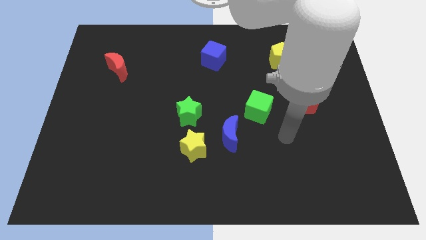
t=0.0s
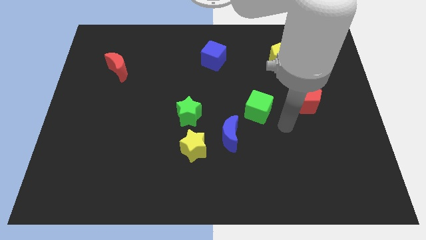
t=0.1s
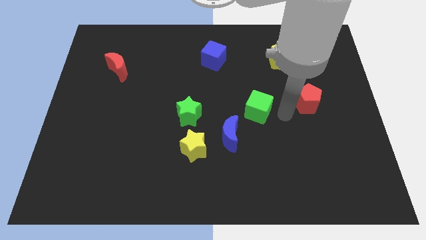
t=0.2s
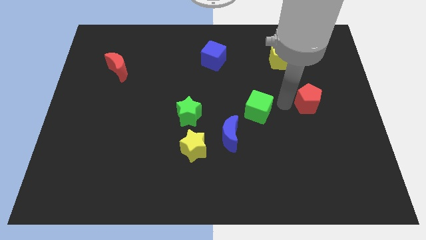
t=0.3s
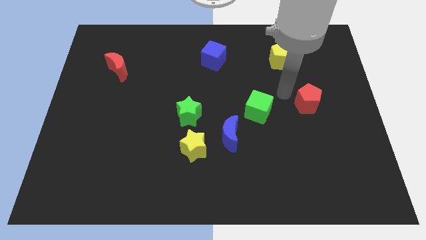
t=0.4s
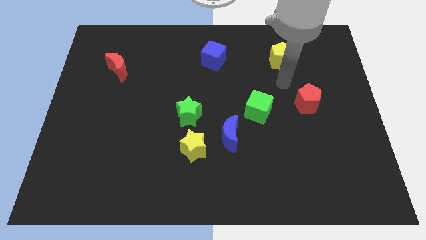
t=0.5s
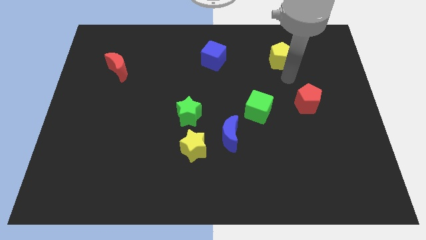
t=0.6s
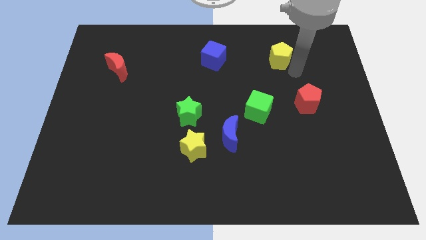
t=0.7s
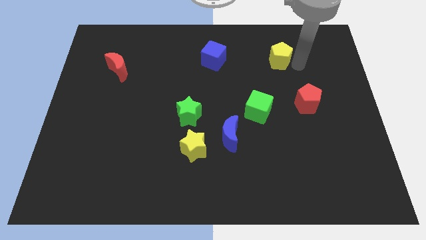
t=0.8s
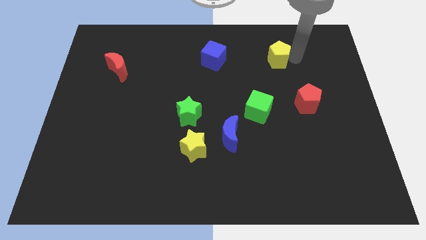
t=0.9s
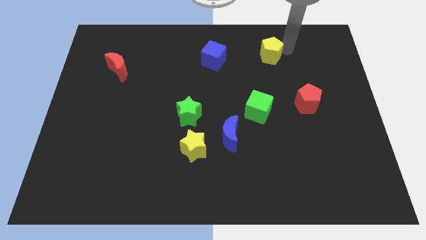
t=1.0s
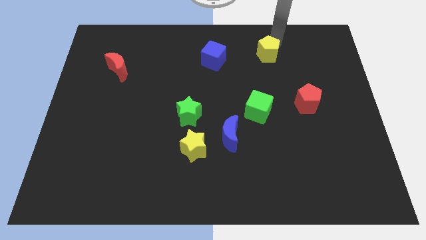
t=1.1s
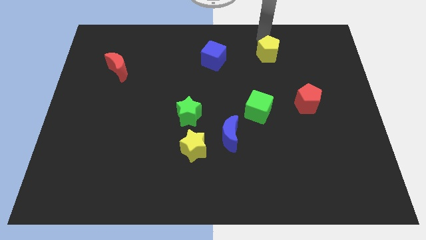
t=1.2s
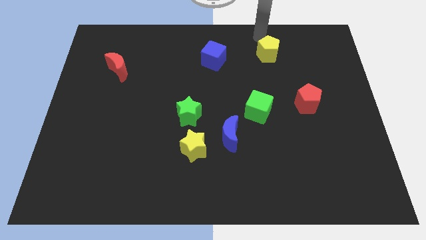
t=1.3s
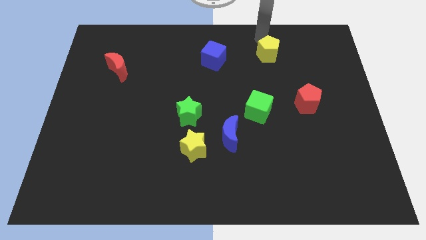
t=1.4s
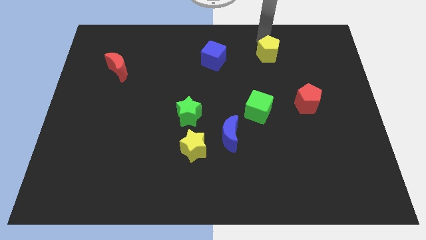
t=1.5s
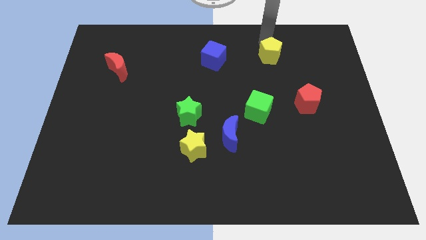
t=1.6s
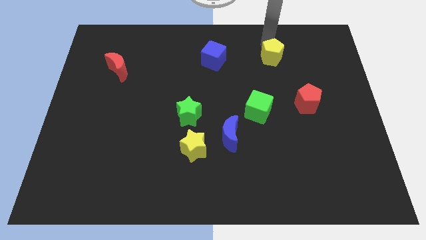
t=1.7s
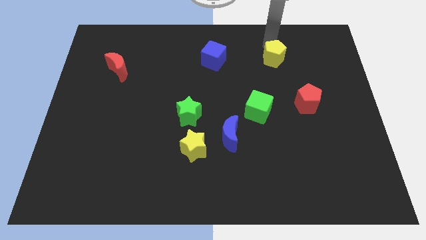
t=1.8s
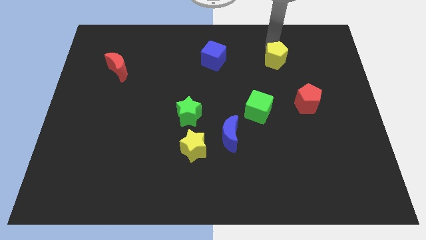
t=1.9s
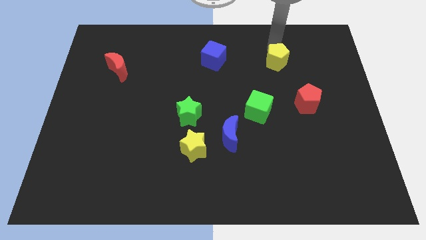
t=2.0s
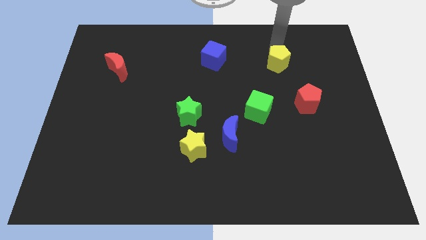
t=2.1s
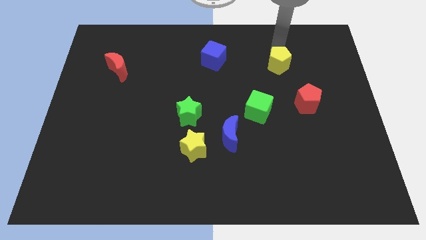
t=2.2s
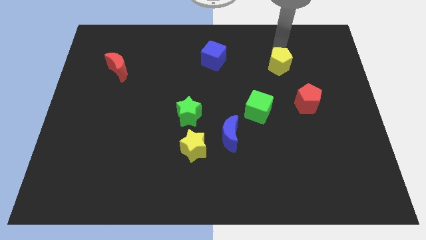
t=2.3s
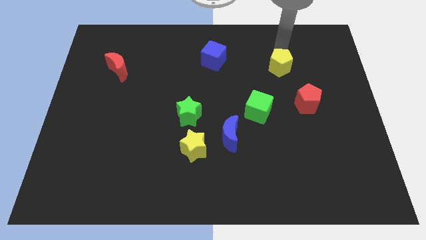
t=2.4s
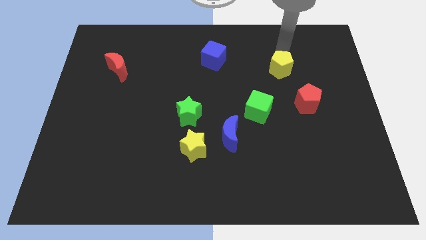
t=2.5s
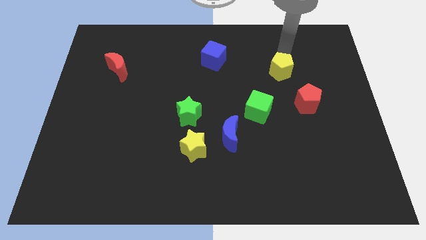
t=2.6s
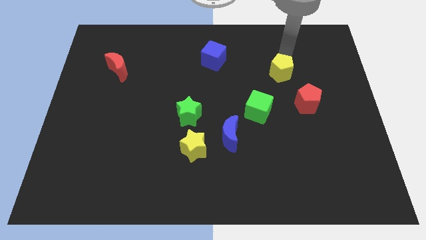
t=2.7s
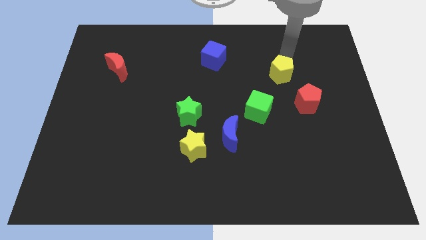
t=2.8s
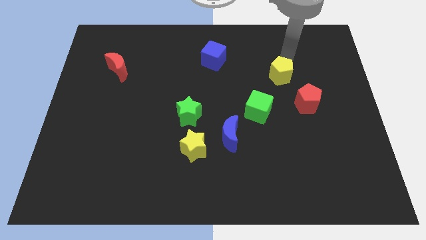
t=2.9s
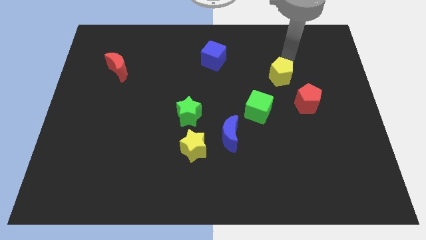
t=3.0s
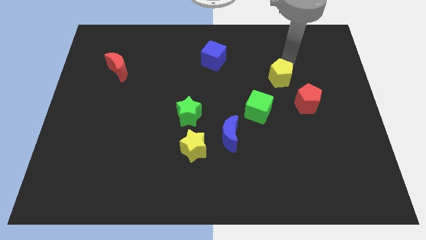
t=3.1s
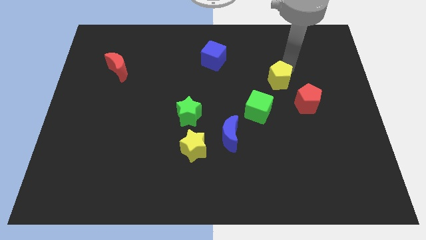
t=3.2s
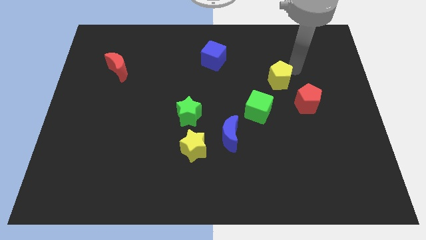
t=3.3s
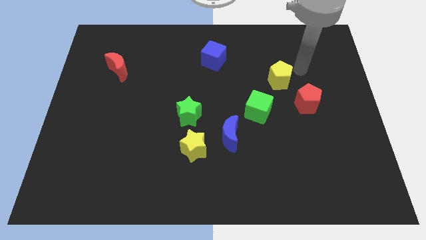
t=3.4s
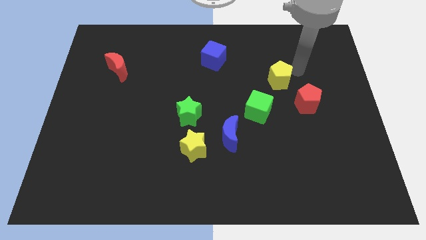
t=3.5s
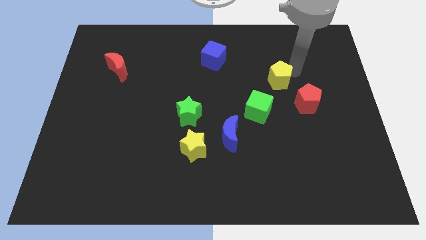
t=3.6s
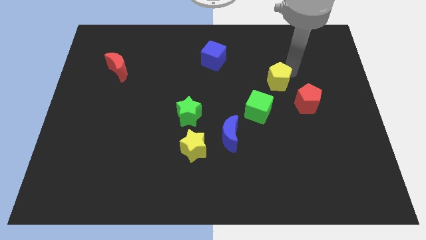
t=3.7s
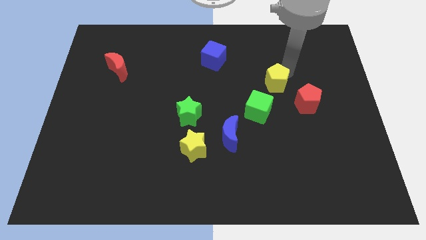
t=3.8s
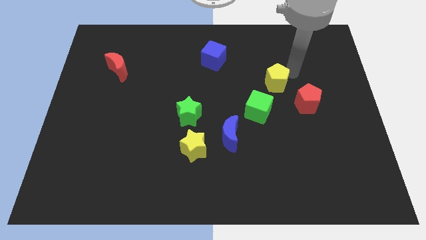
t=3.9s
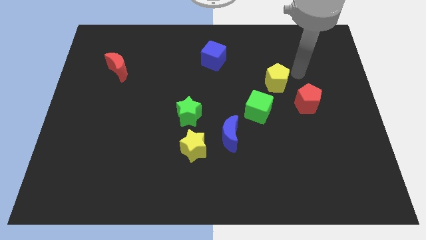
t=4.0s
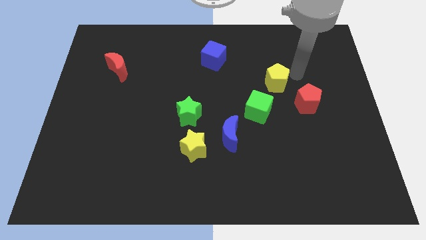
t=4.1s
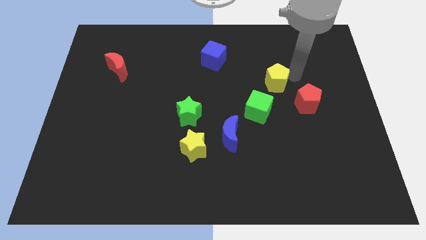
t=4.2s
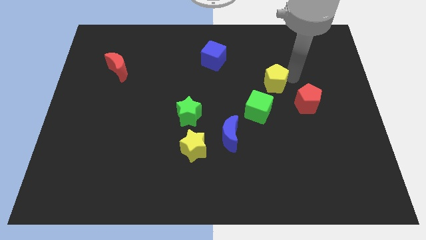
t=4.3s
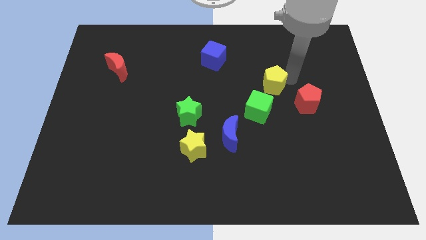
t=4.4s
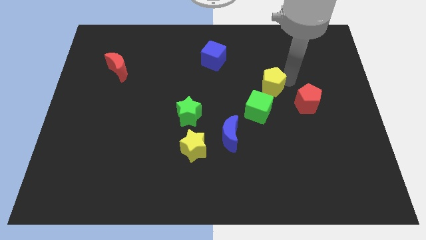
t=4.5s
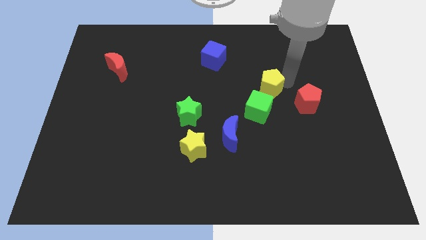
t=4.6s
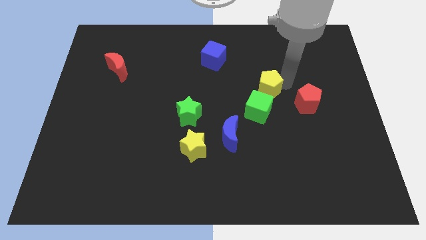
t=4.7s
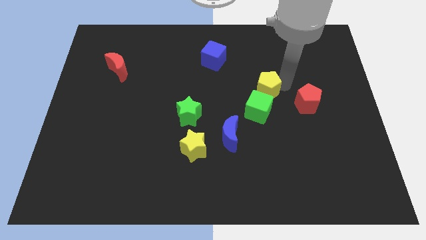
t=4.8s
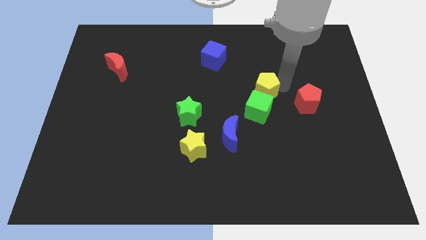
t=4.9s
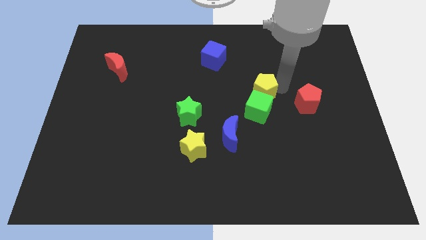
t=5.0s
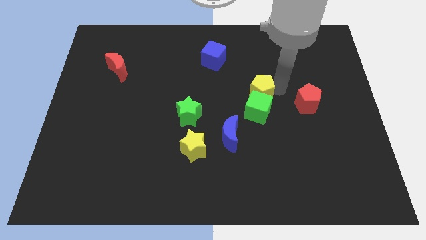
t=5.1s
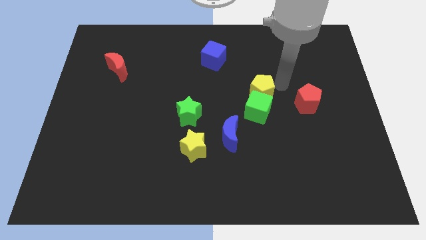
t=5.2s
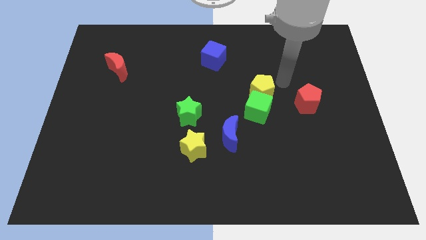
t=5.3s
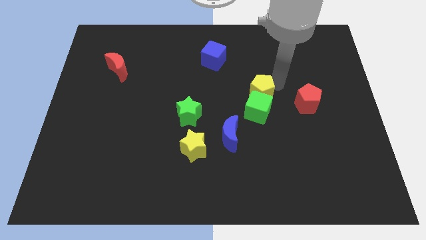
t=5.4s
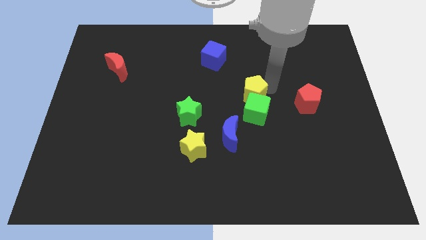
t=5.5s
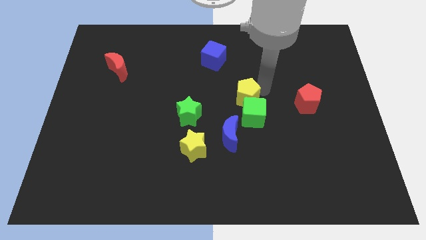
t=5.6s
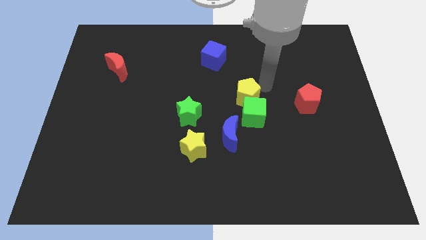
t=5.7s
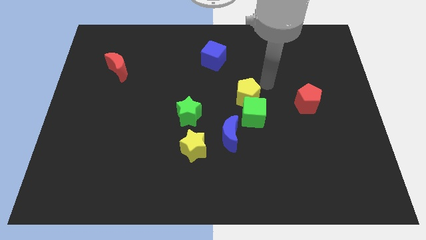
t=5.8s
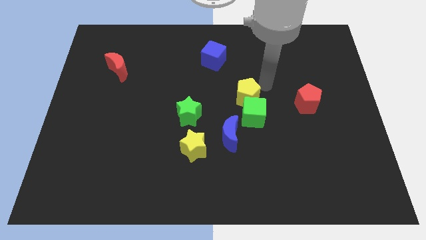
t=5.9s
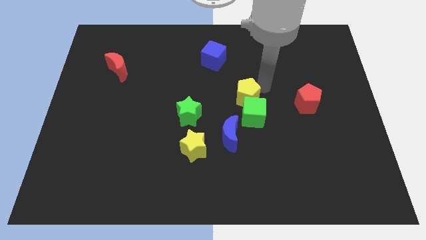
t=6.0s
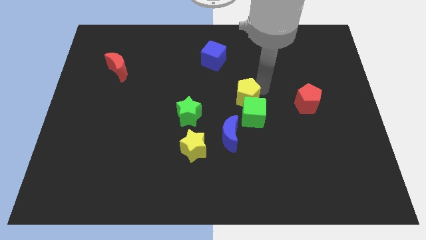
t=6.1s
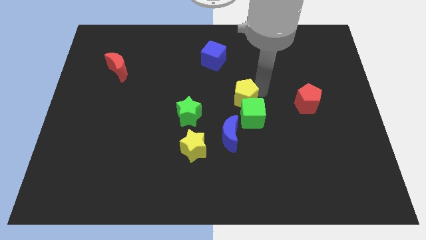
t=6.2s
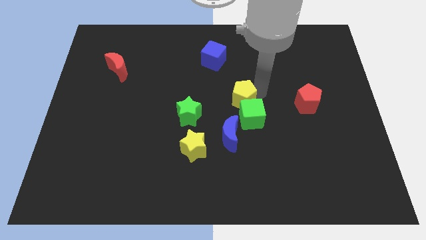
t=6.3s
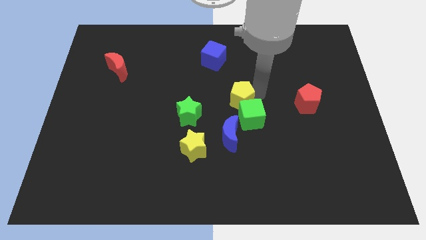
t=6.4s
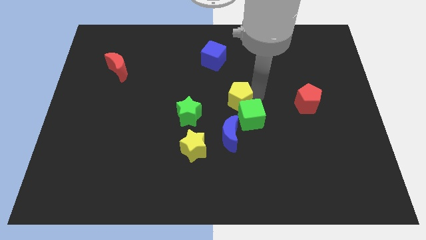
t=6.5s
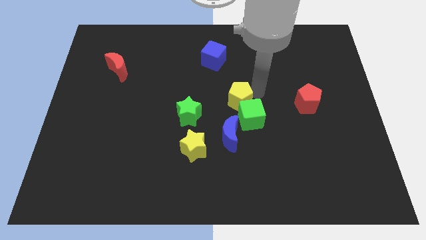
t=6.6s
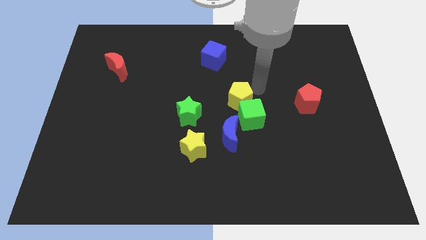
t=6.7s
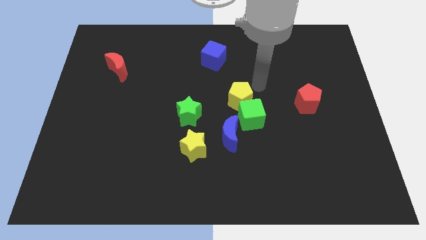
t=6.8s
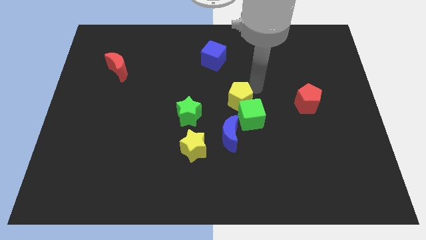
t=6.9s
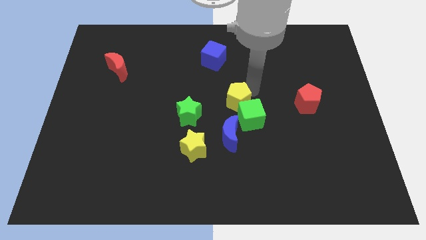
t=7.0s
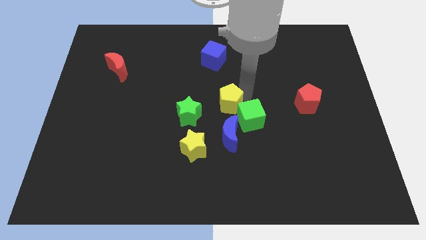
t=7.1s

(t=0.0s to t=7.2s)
slide the yellow pentagon down and to the left diagonally

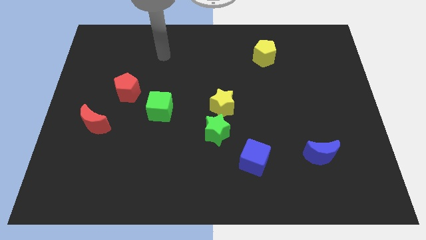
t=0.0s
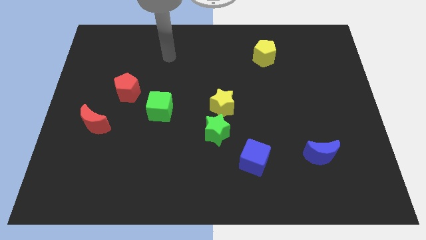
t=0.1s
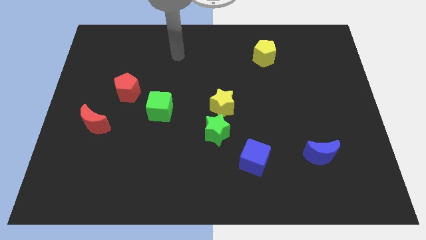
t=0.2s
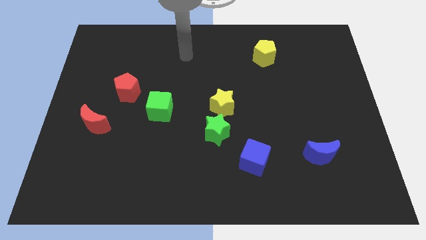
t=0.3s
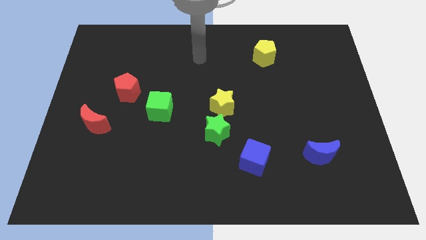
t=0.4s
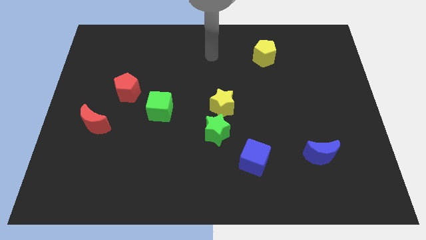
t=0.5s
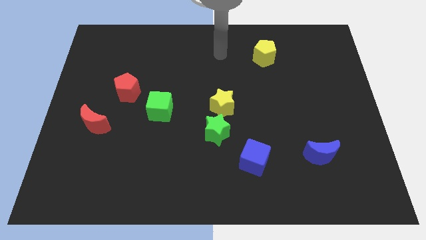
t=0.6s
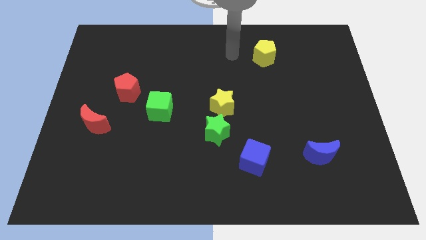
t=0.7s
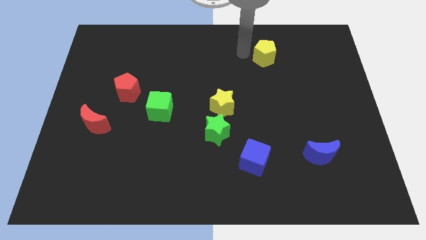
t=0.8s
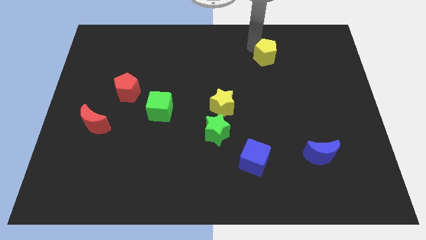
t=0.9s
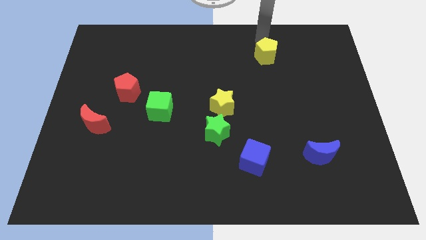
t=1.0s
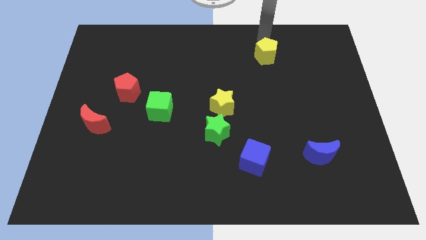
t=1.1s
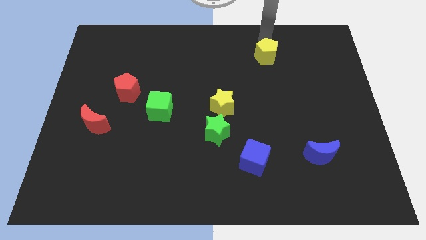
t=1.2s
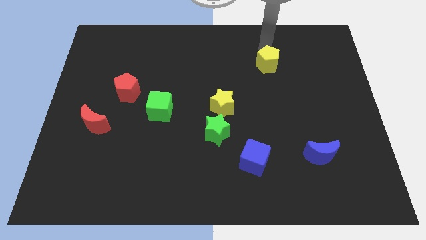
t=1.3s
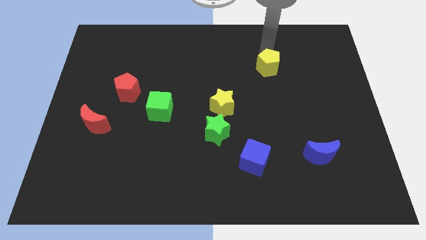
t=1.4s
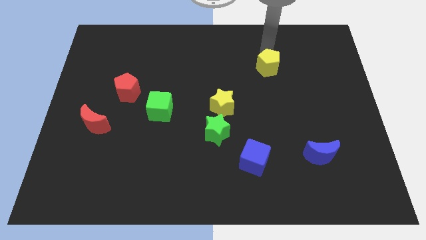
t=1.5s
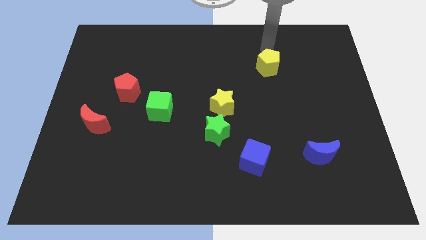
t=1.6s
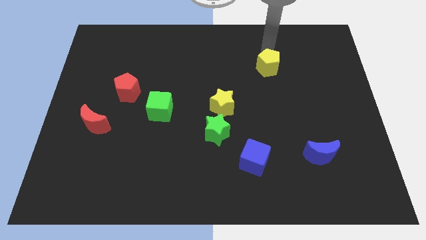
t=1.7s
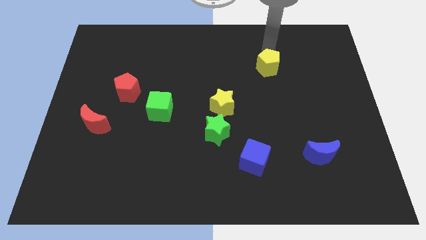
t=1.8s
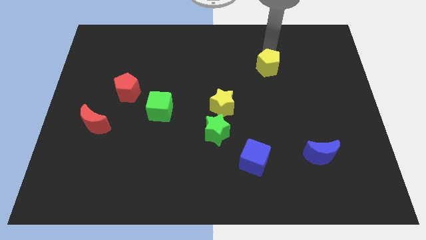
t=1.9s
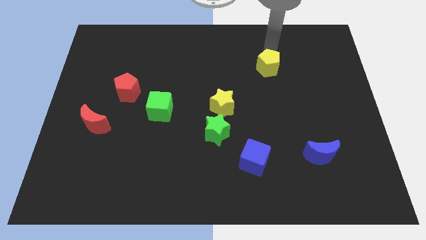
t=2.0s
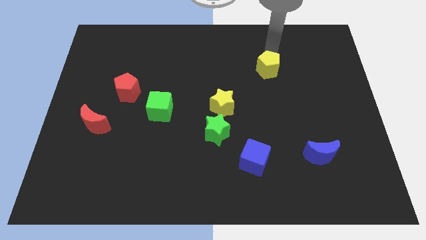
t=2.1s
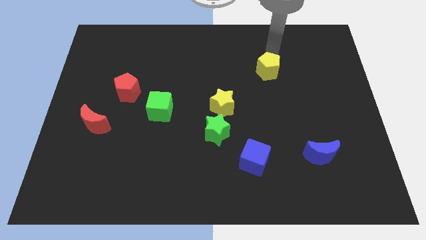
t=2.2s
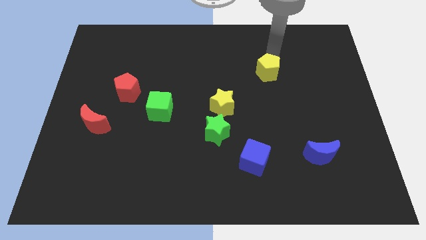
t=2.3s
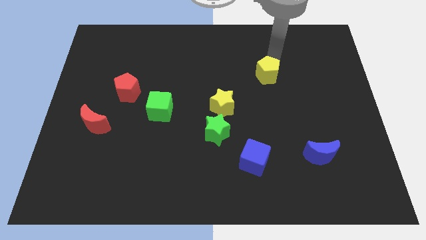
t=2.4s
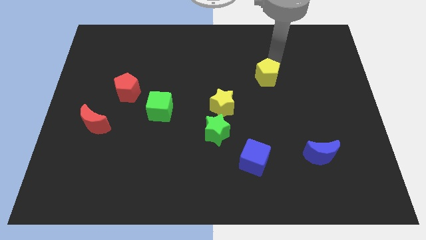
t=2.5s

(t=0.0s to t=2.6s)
move the yellow pentagon a little bit down
